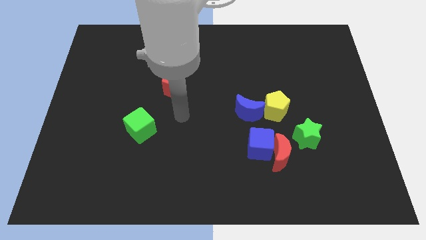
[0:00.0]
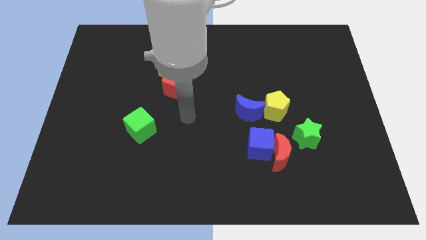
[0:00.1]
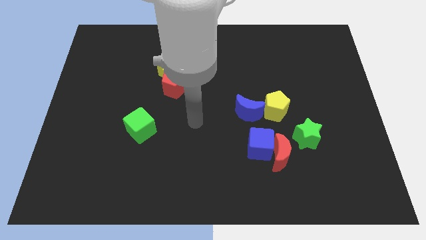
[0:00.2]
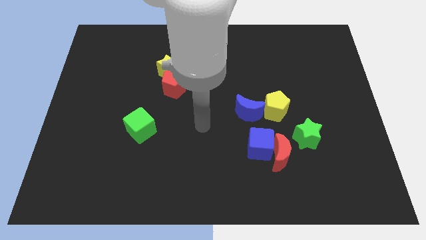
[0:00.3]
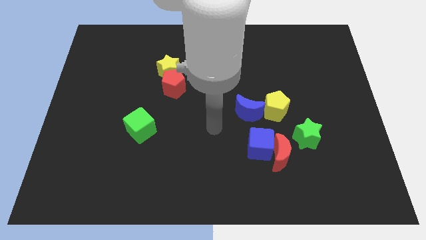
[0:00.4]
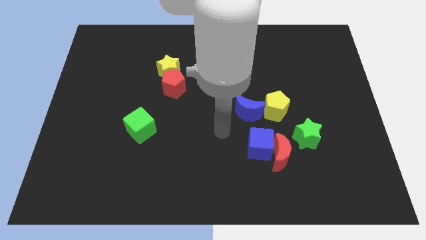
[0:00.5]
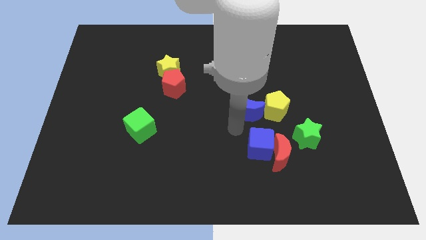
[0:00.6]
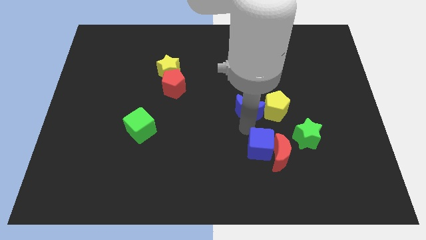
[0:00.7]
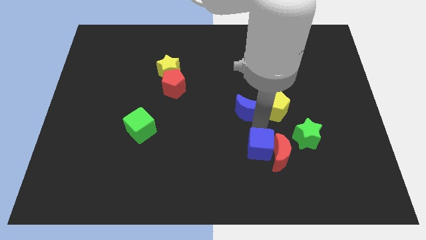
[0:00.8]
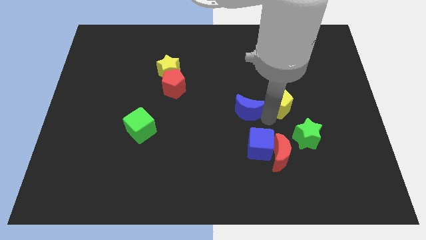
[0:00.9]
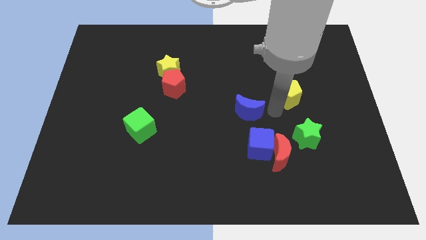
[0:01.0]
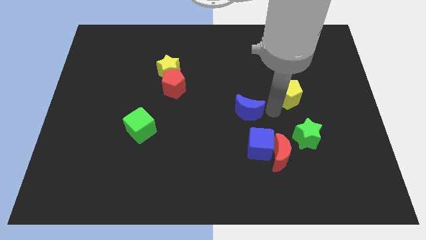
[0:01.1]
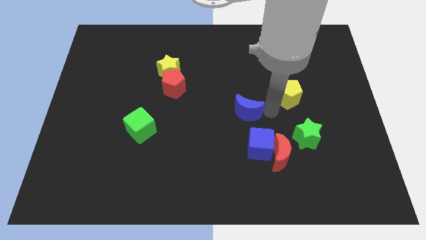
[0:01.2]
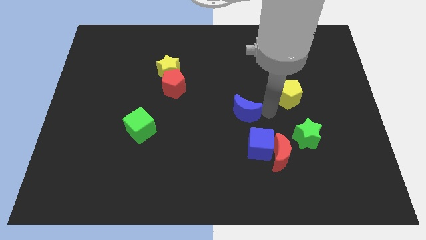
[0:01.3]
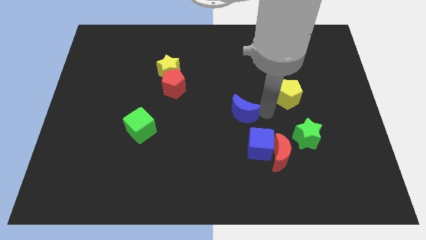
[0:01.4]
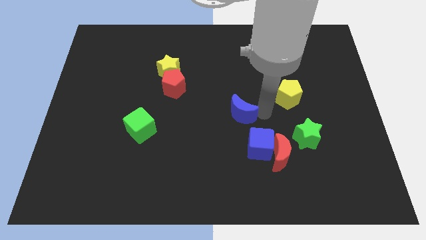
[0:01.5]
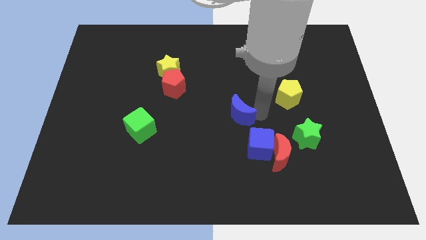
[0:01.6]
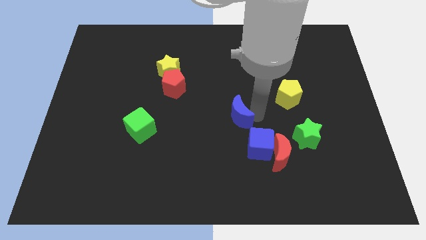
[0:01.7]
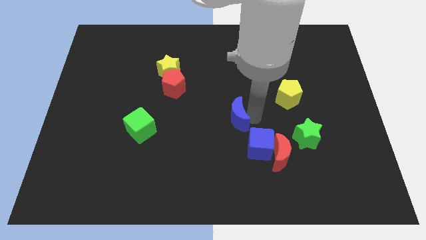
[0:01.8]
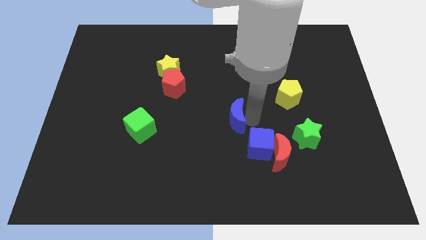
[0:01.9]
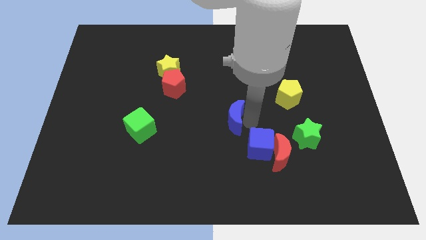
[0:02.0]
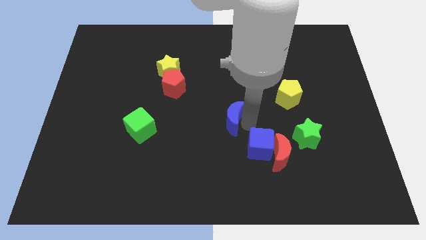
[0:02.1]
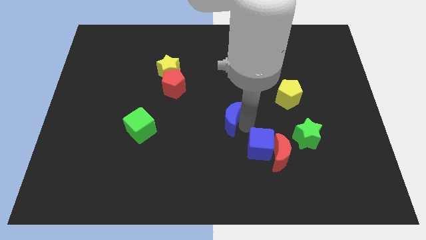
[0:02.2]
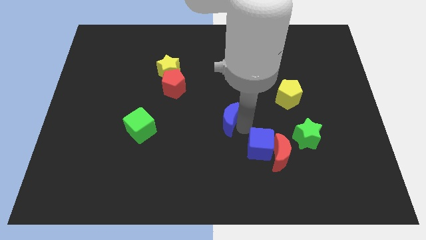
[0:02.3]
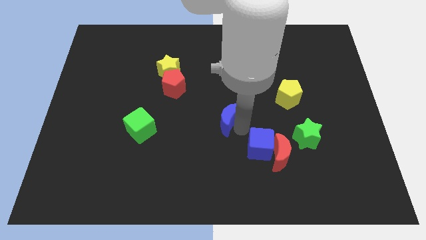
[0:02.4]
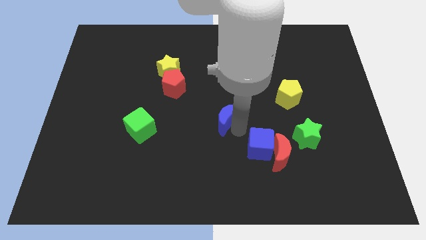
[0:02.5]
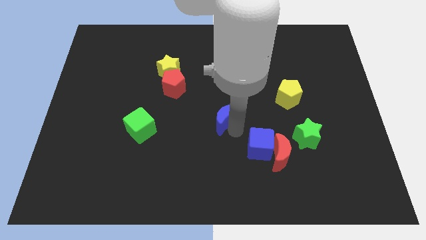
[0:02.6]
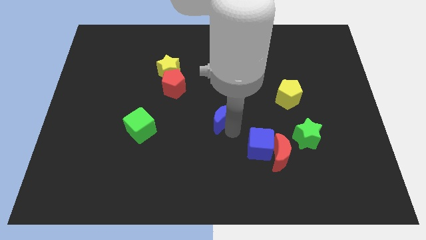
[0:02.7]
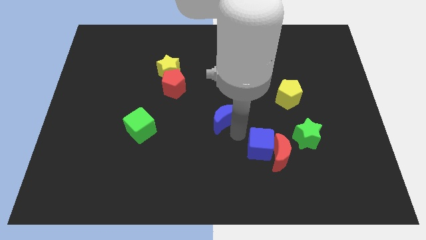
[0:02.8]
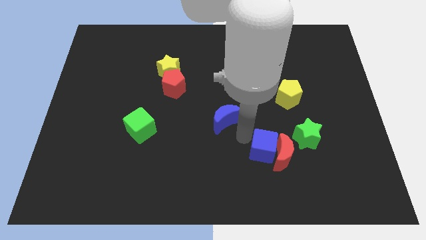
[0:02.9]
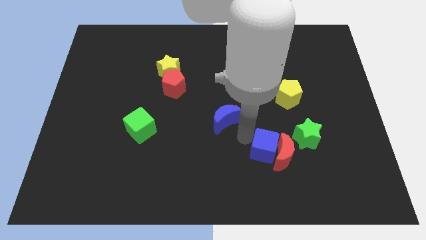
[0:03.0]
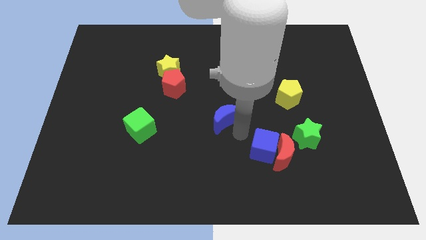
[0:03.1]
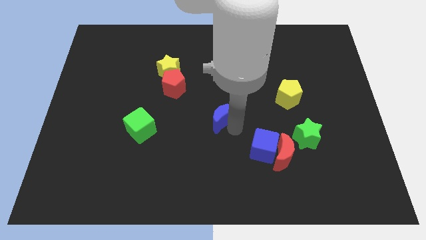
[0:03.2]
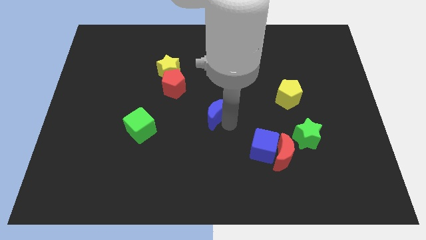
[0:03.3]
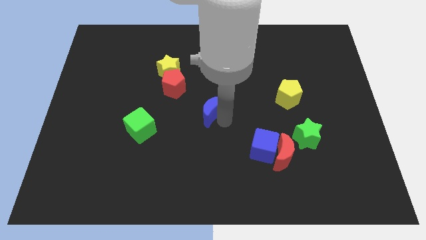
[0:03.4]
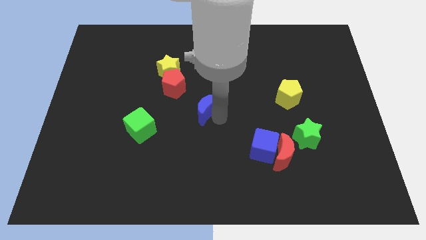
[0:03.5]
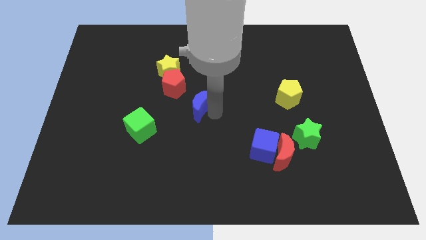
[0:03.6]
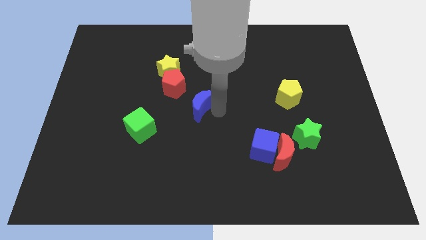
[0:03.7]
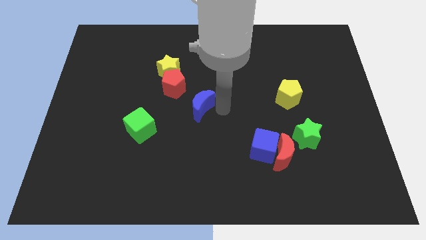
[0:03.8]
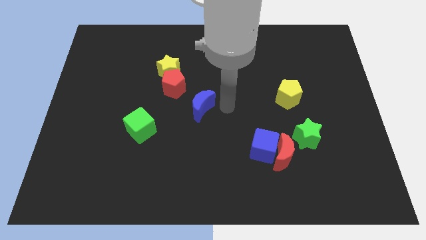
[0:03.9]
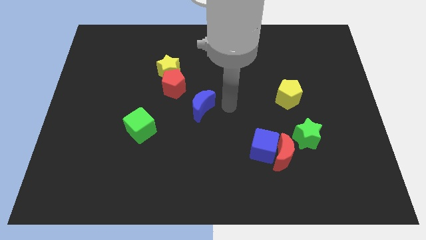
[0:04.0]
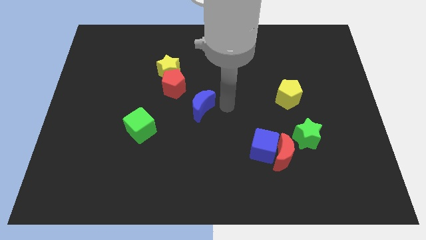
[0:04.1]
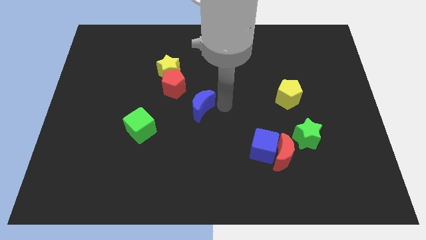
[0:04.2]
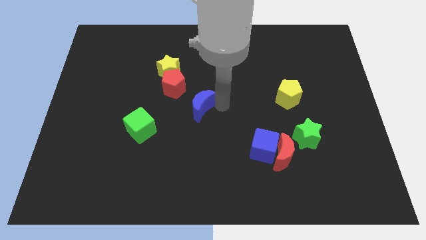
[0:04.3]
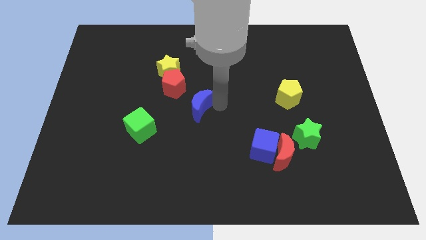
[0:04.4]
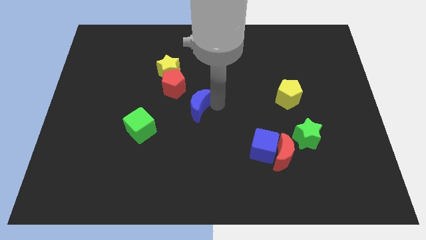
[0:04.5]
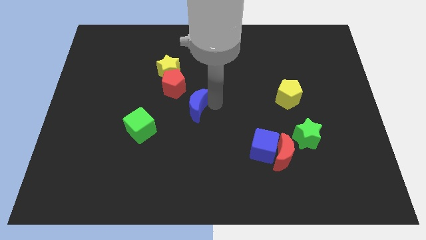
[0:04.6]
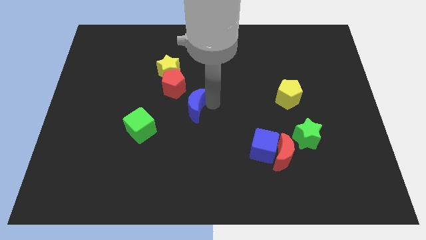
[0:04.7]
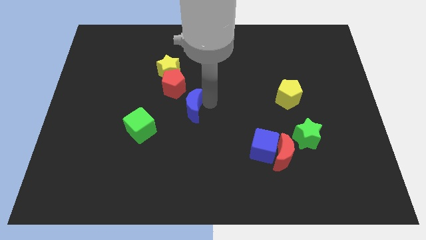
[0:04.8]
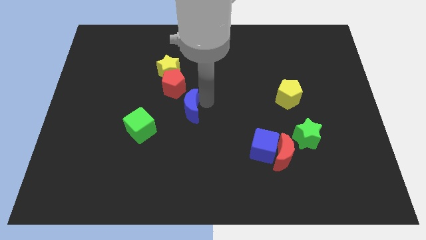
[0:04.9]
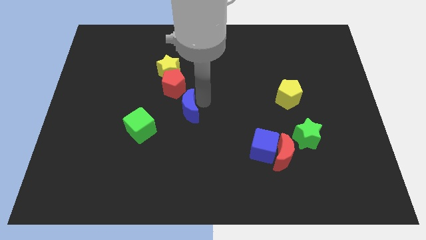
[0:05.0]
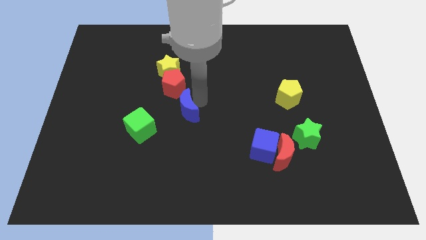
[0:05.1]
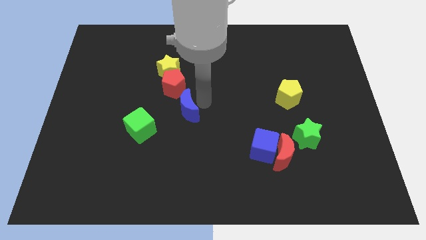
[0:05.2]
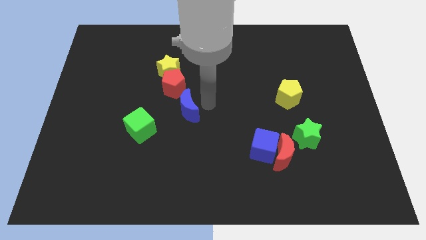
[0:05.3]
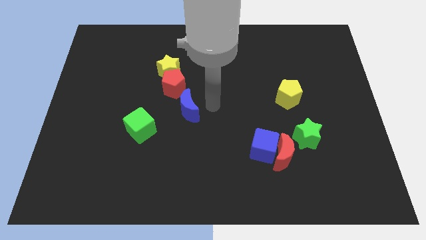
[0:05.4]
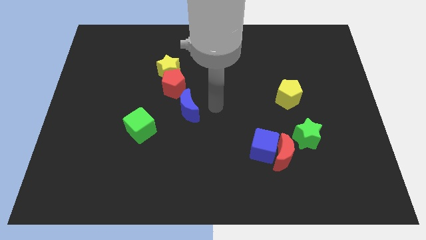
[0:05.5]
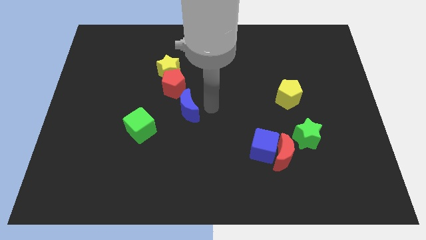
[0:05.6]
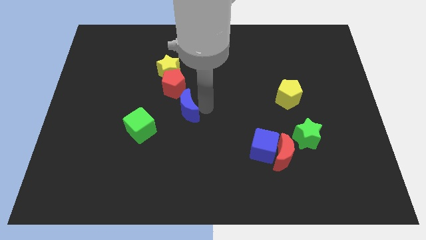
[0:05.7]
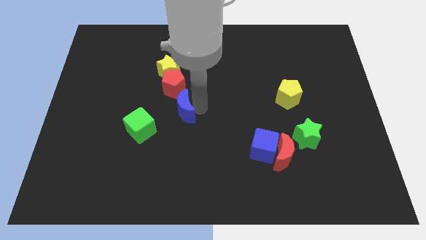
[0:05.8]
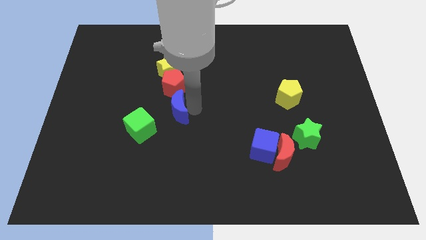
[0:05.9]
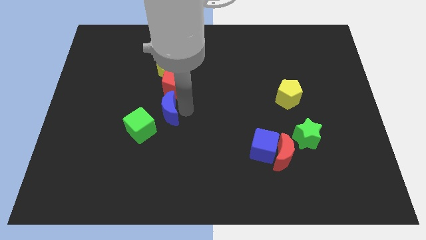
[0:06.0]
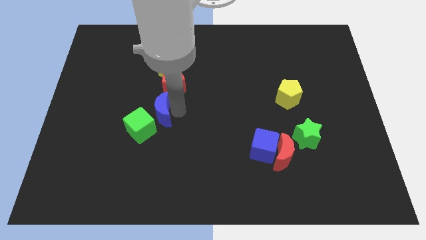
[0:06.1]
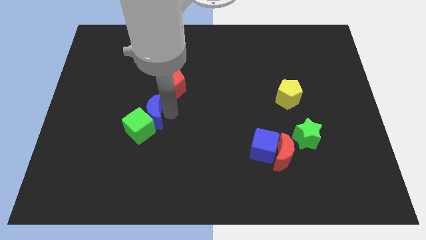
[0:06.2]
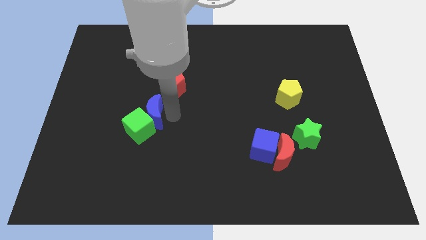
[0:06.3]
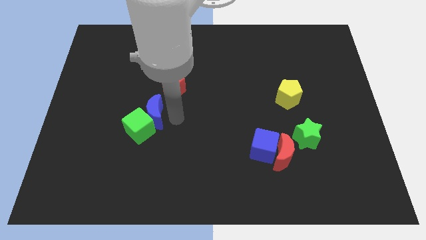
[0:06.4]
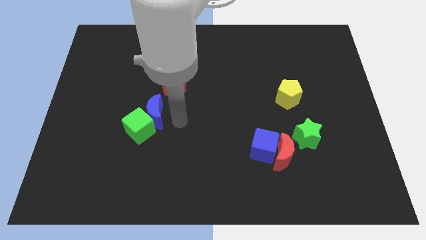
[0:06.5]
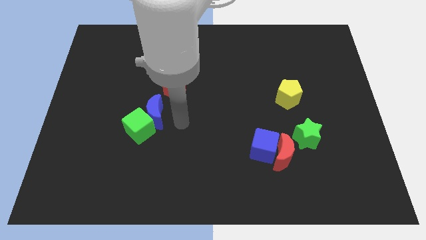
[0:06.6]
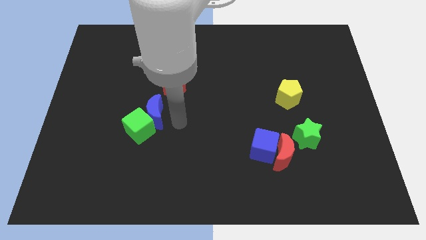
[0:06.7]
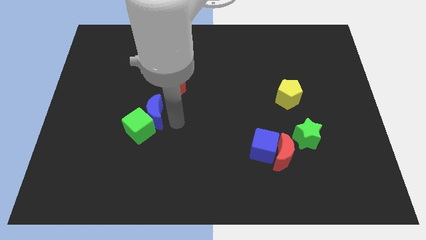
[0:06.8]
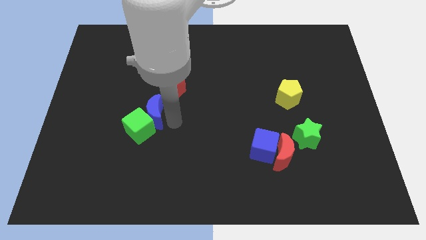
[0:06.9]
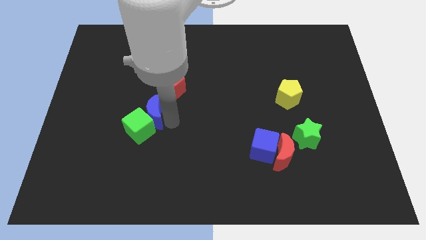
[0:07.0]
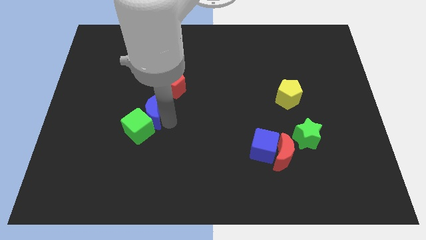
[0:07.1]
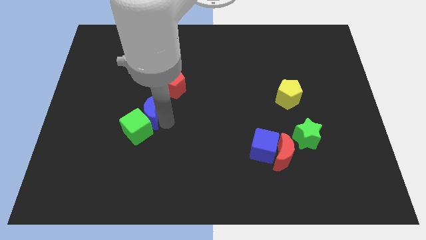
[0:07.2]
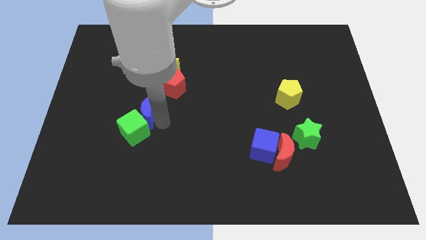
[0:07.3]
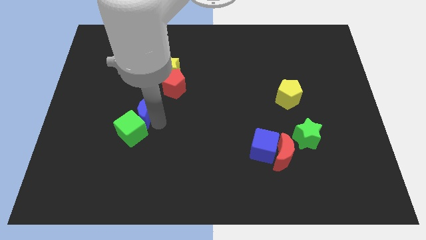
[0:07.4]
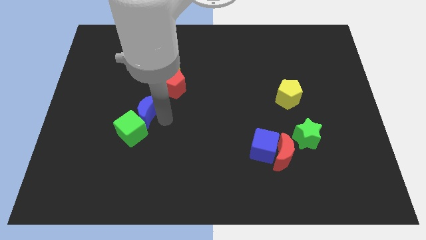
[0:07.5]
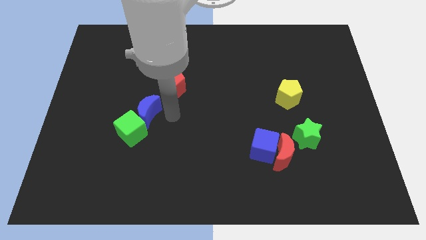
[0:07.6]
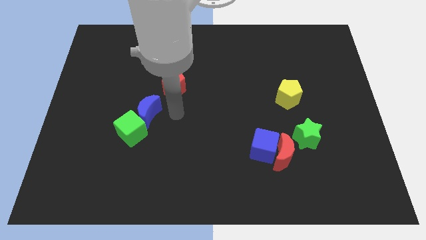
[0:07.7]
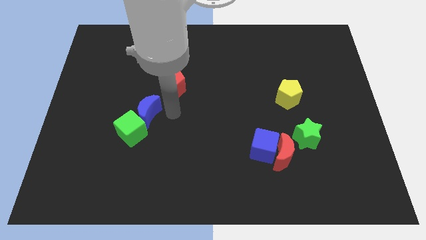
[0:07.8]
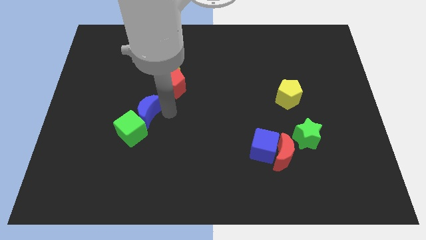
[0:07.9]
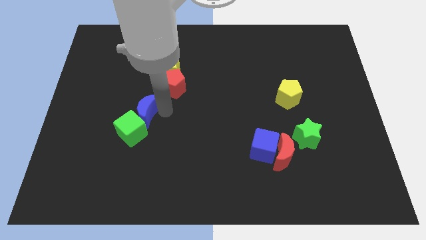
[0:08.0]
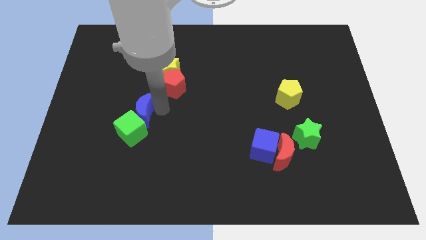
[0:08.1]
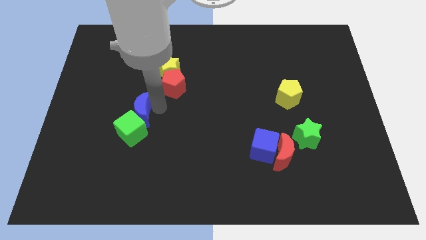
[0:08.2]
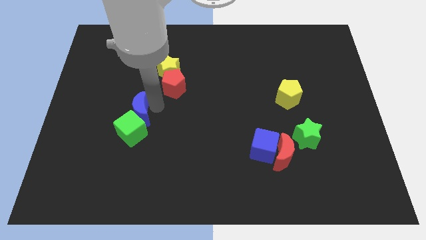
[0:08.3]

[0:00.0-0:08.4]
put the blue moon to the top left side of the green cube
